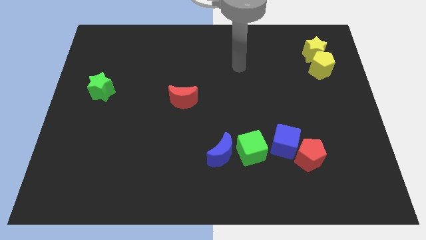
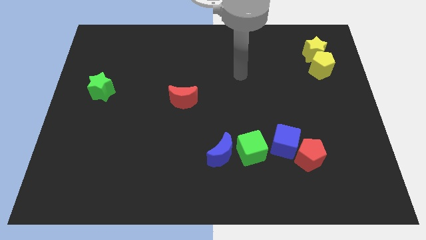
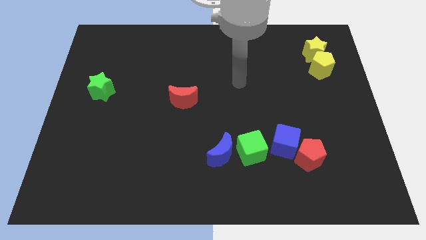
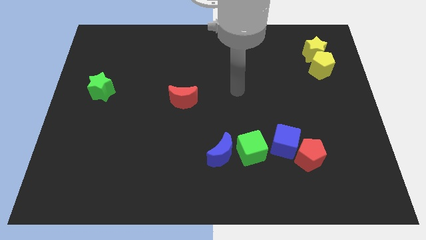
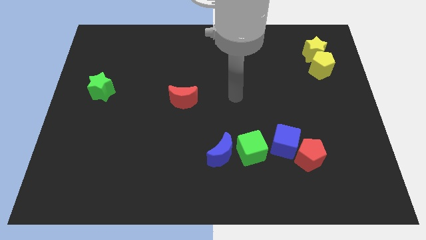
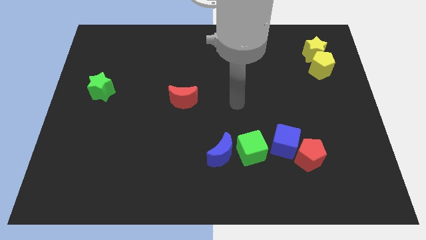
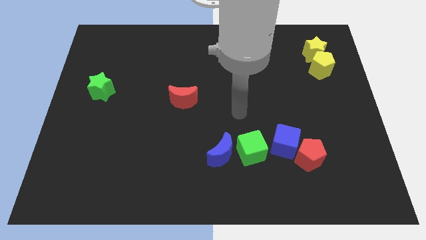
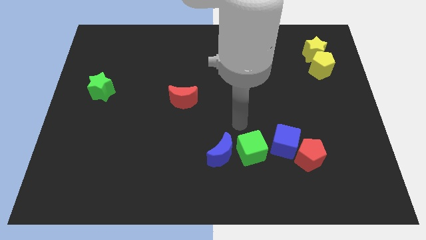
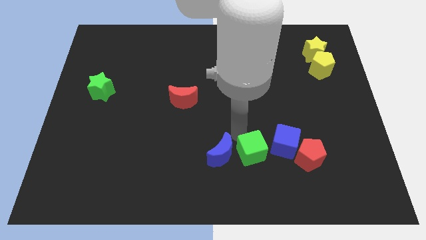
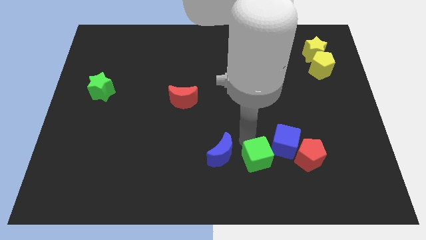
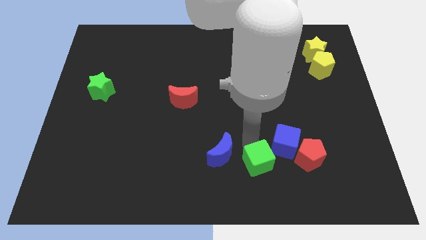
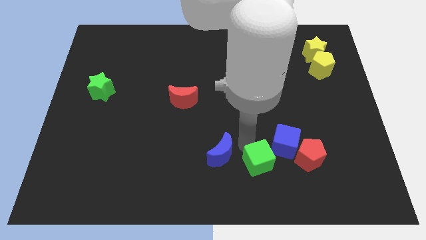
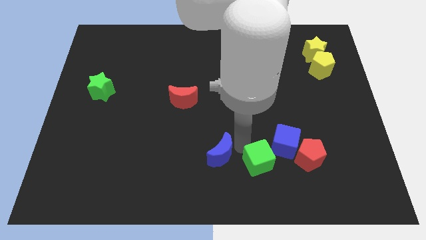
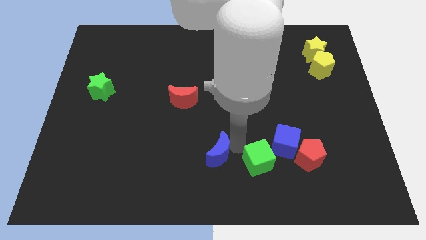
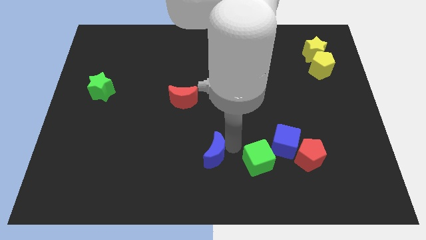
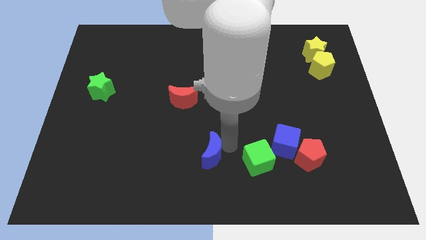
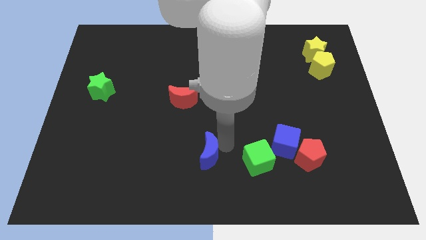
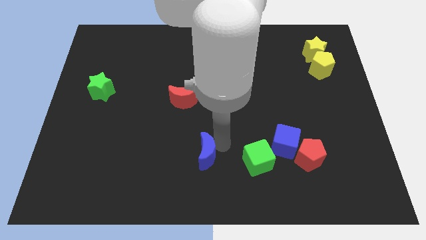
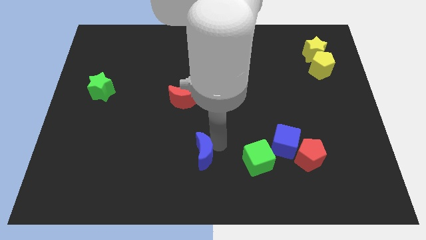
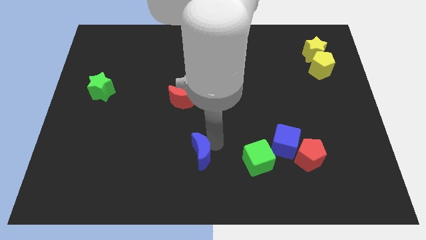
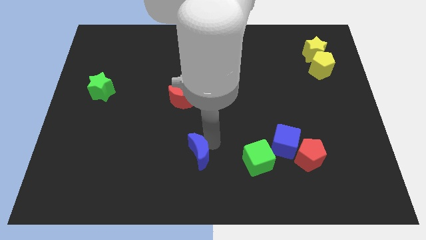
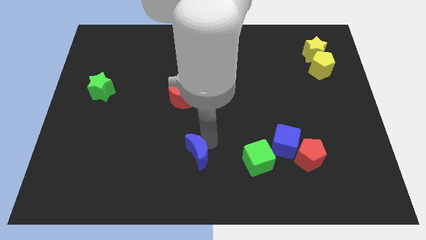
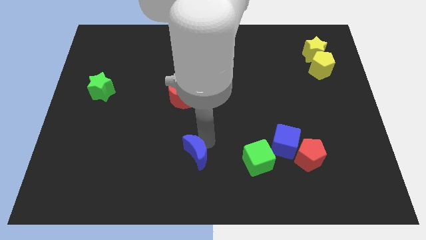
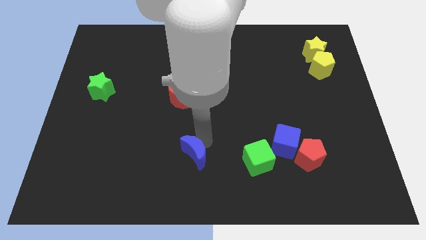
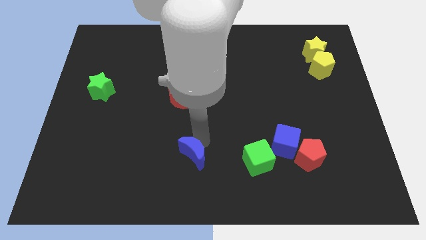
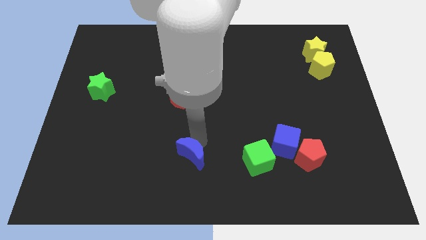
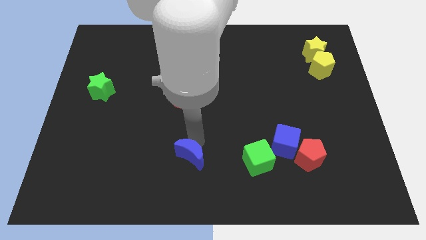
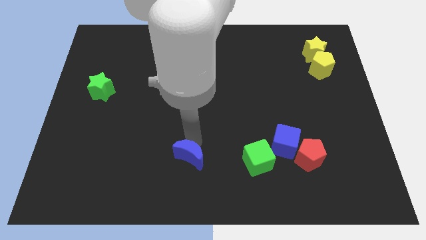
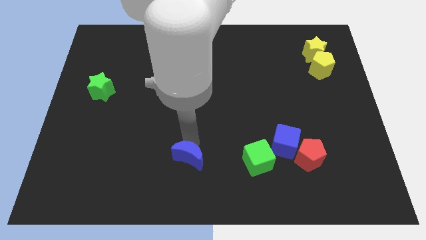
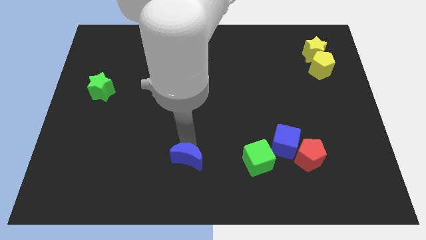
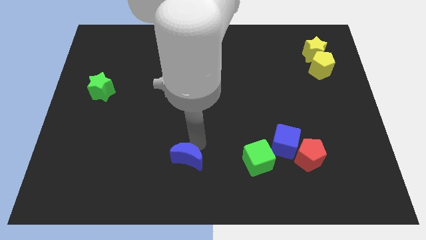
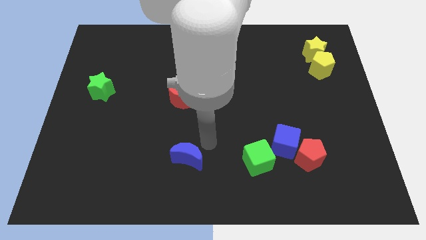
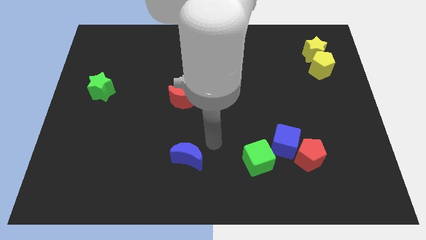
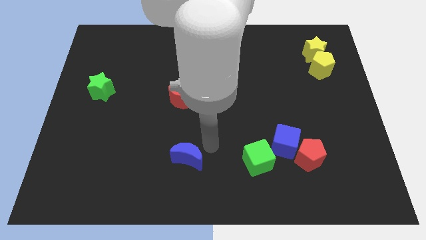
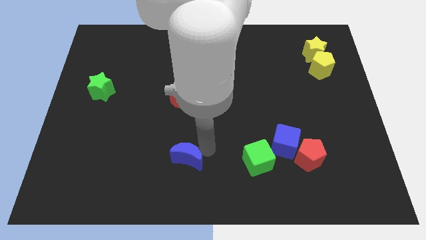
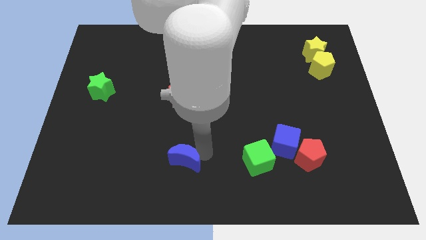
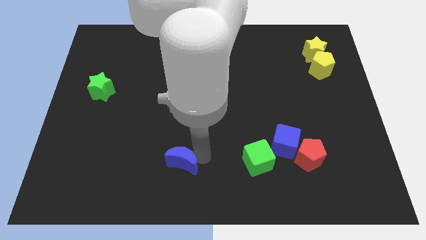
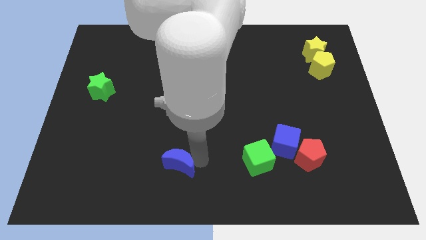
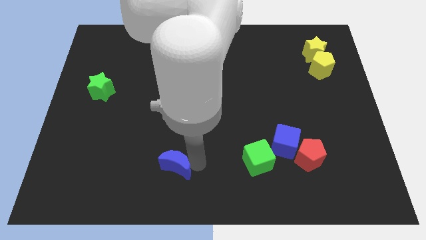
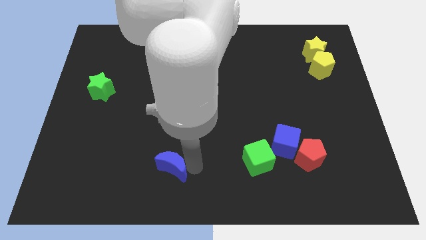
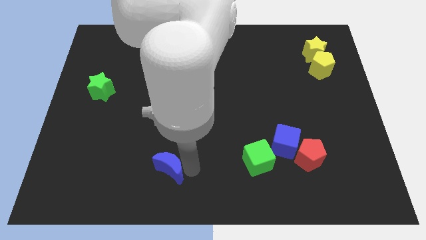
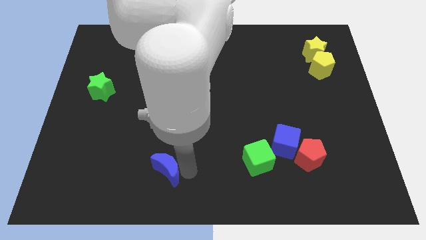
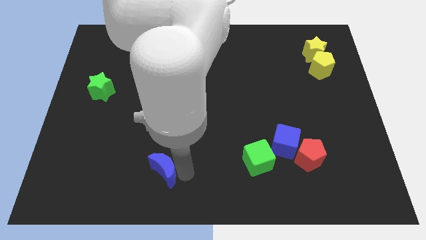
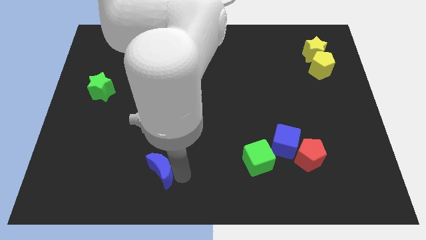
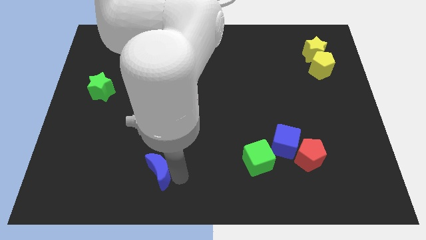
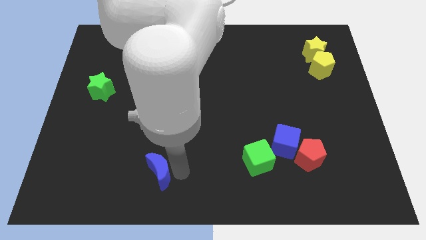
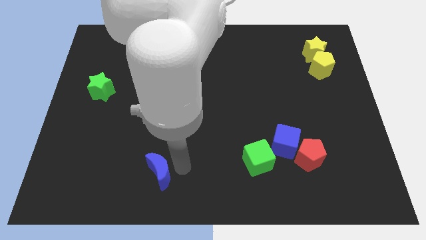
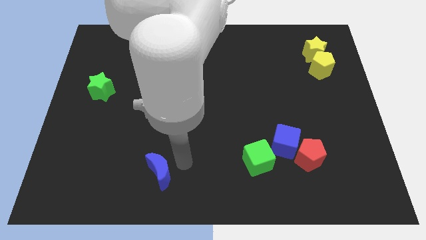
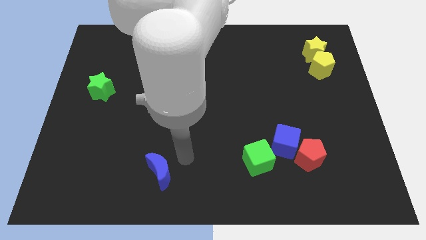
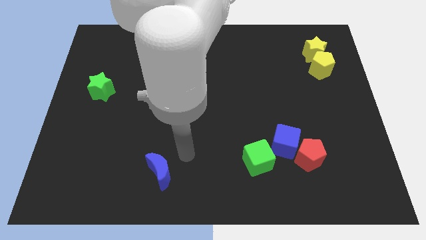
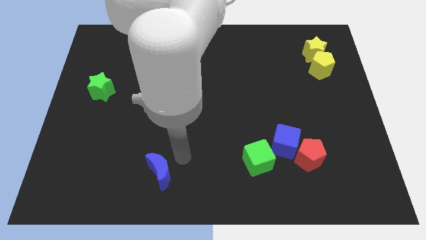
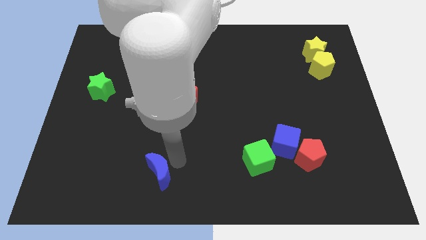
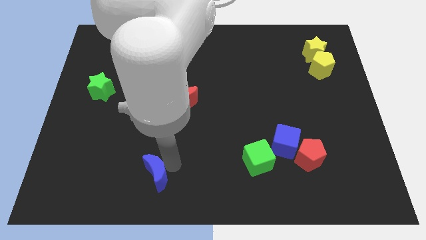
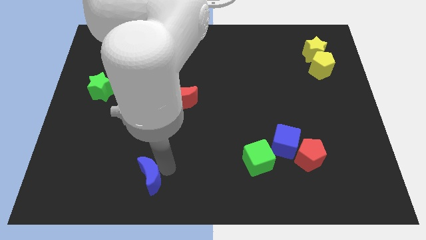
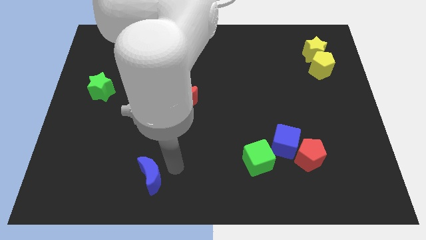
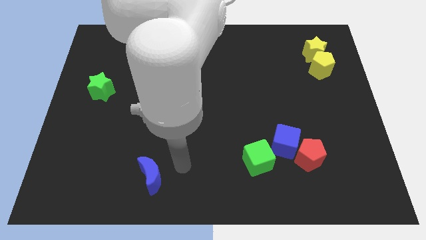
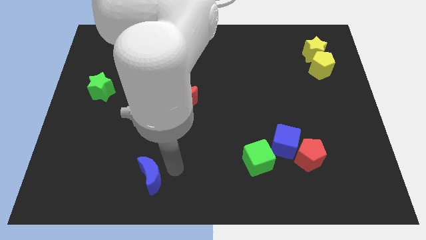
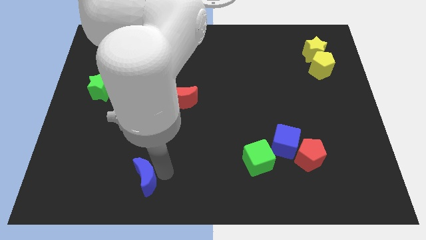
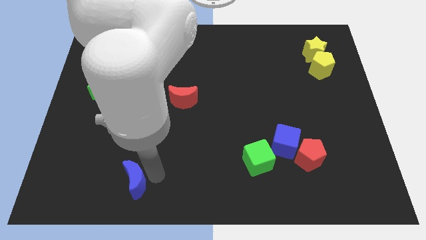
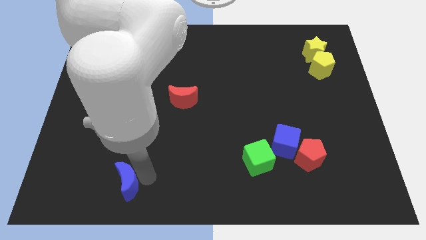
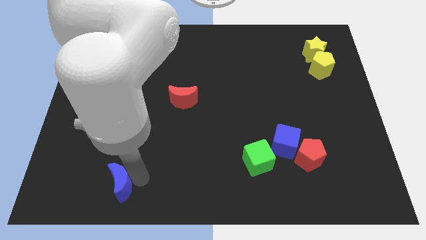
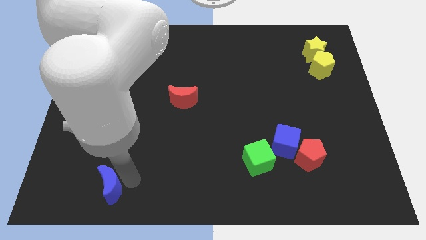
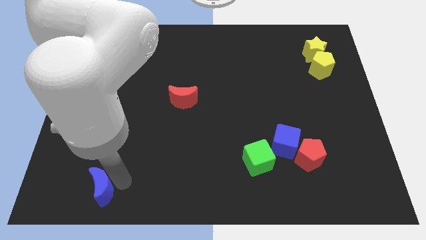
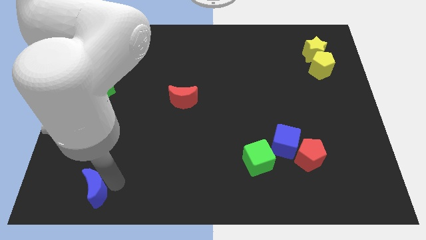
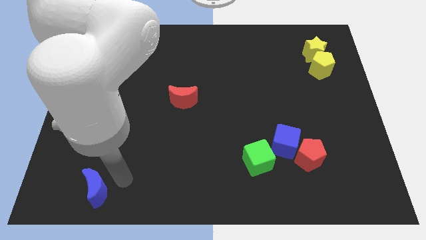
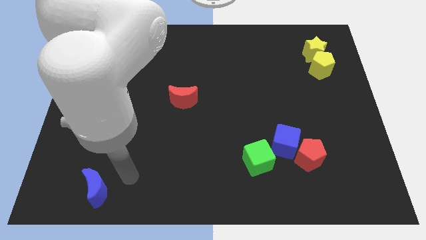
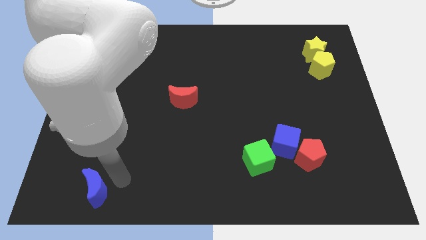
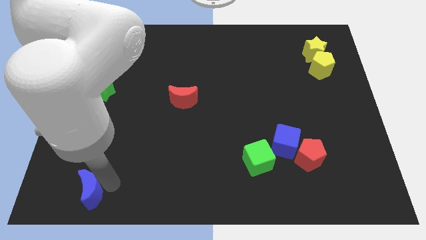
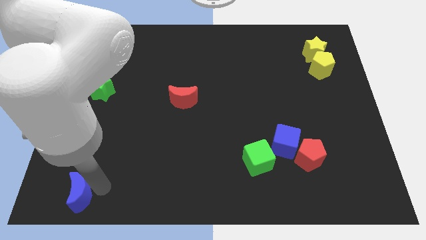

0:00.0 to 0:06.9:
push the blue moon to the bottom left corner

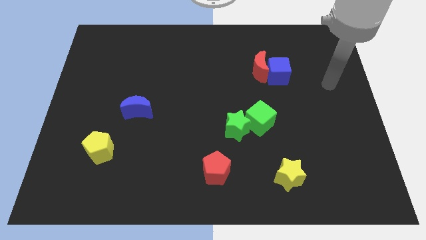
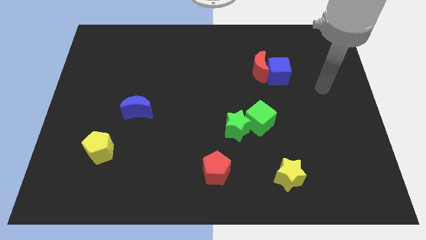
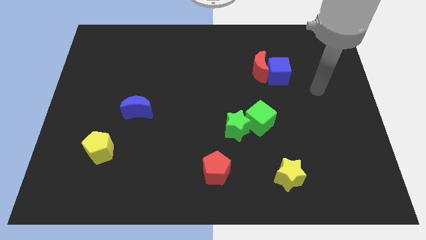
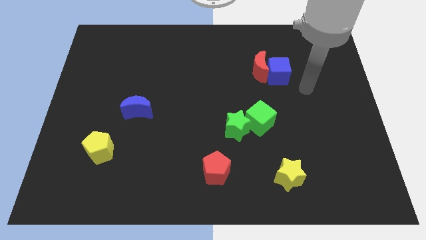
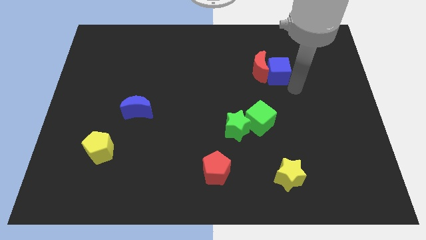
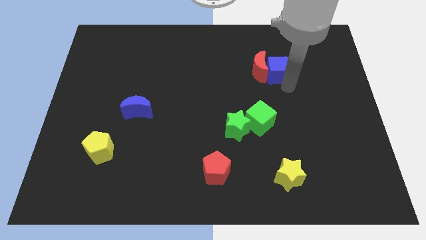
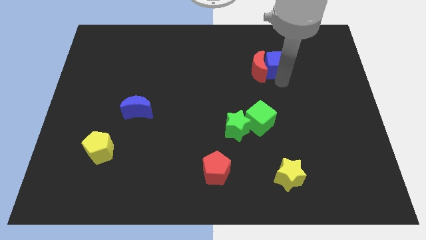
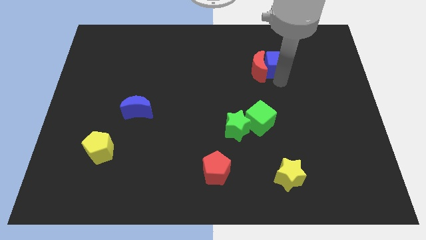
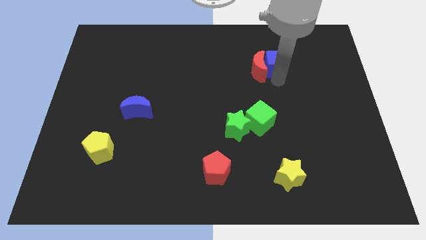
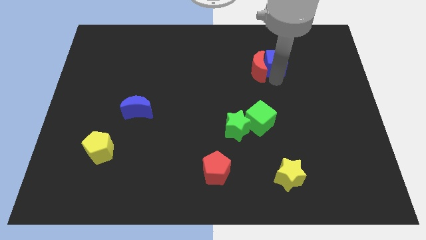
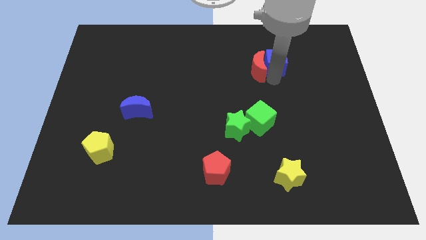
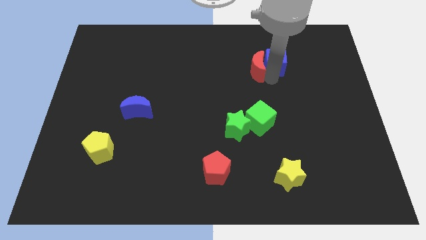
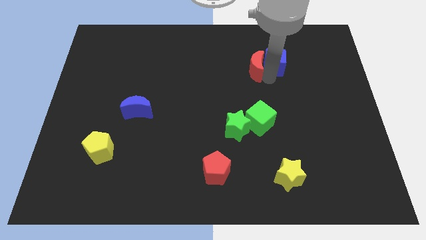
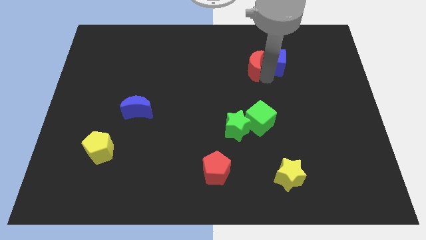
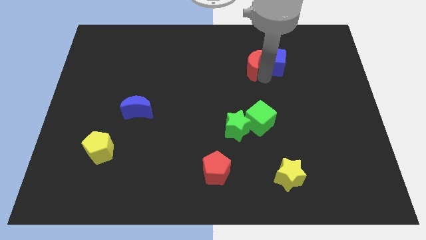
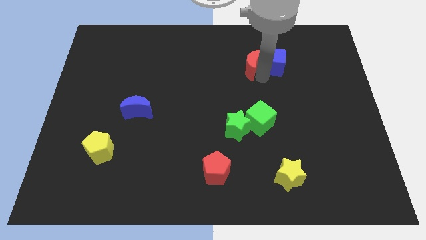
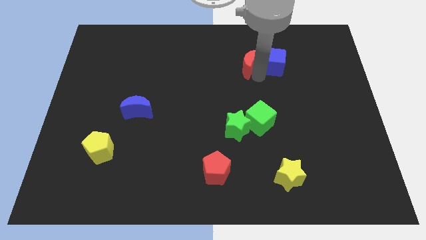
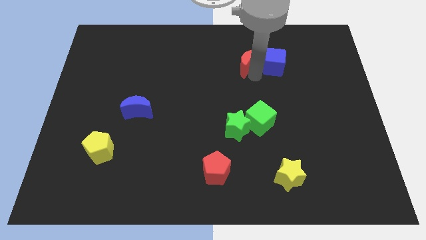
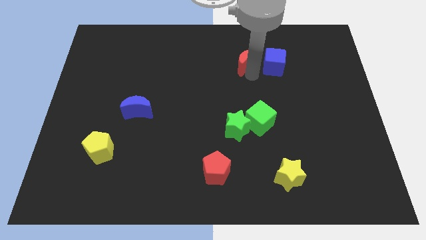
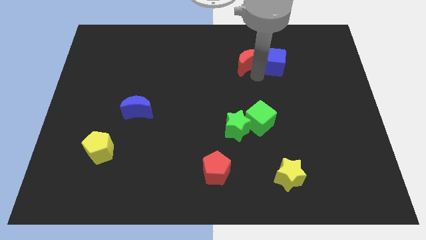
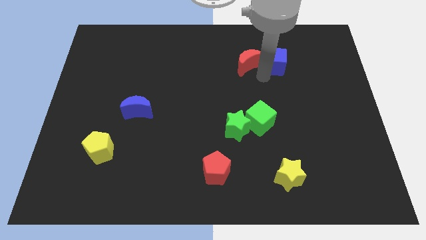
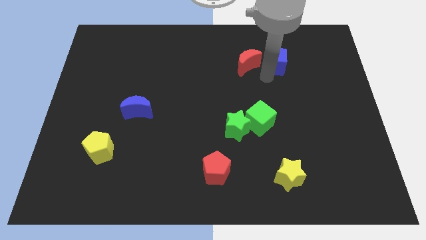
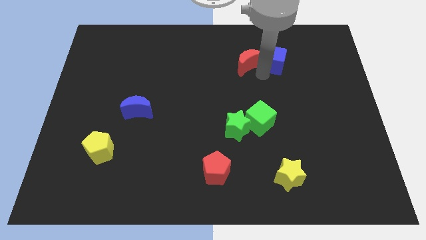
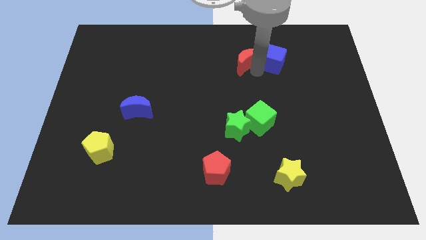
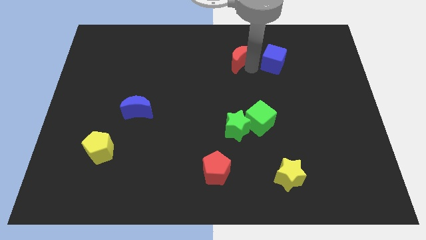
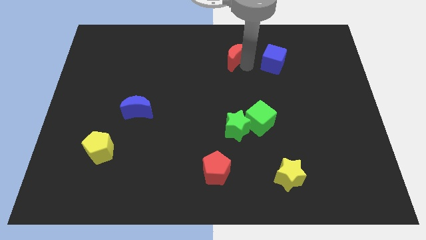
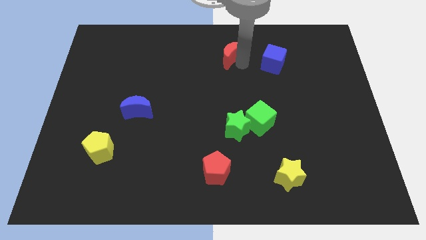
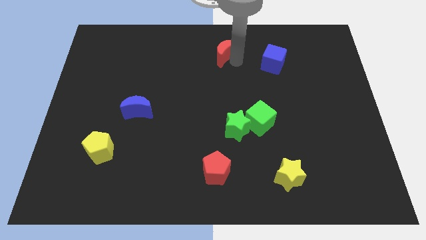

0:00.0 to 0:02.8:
put the red moon to the towards your base
